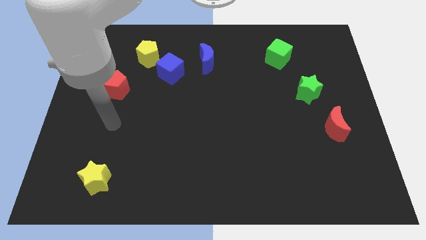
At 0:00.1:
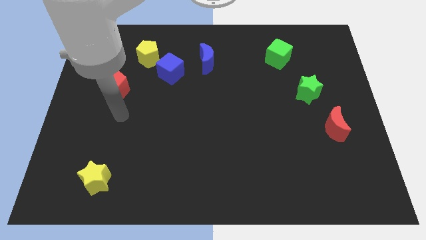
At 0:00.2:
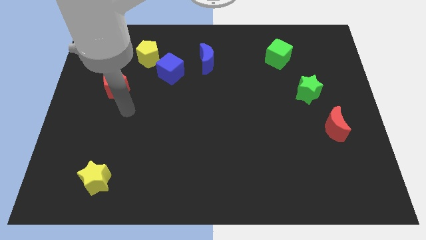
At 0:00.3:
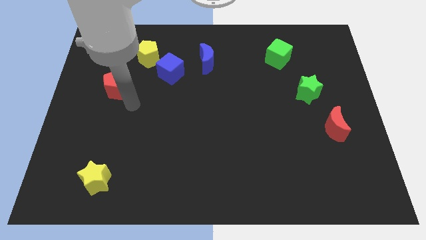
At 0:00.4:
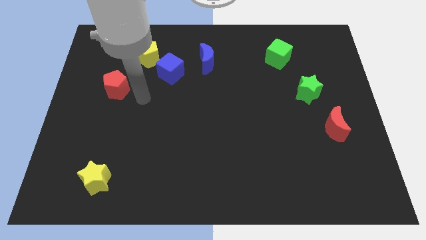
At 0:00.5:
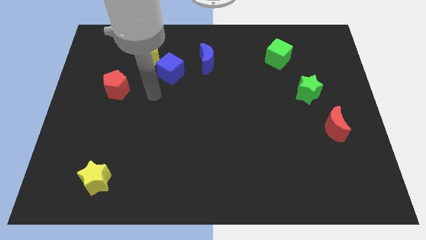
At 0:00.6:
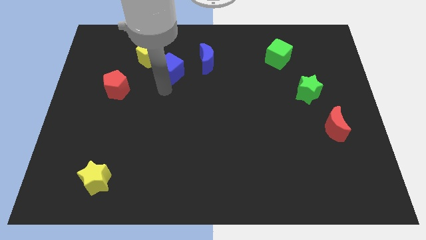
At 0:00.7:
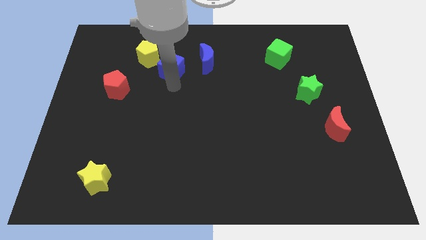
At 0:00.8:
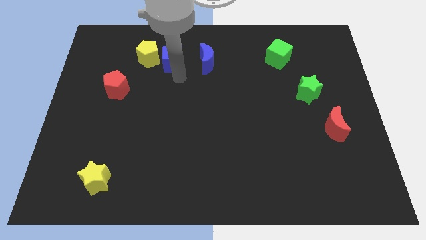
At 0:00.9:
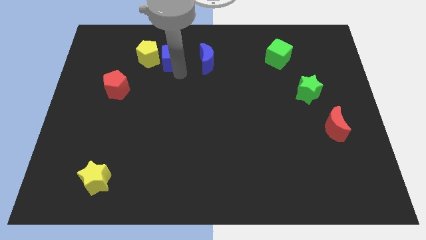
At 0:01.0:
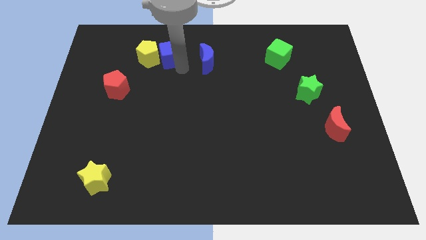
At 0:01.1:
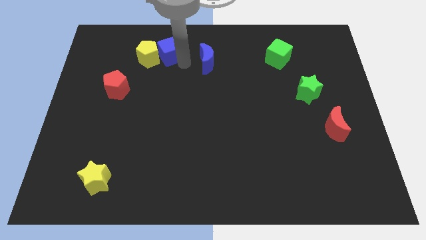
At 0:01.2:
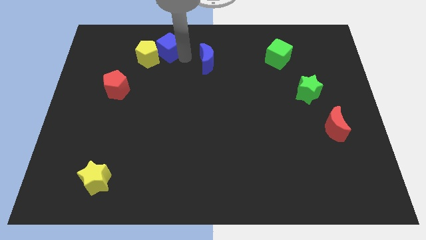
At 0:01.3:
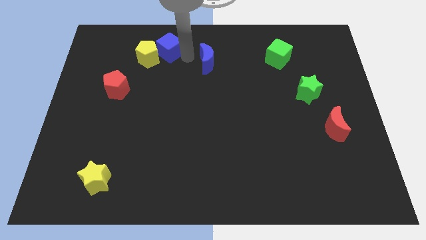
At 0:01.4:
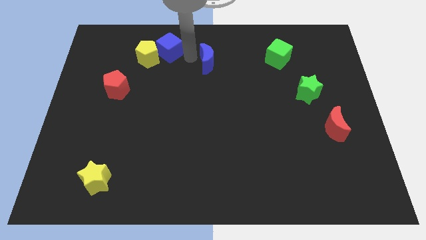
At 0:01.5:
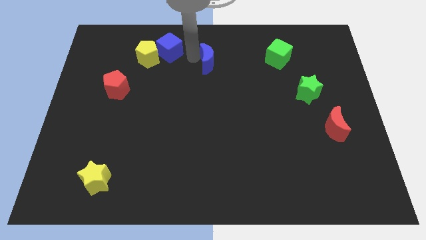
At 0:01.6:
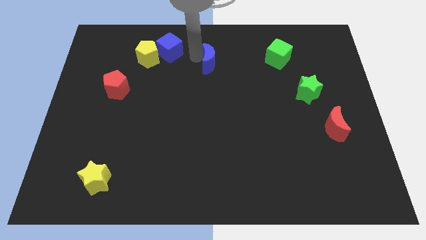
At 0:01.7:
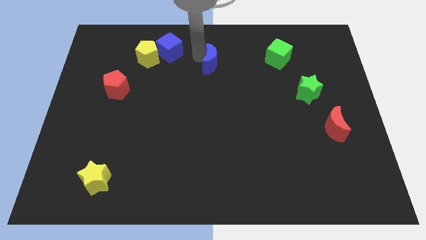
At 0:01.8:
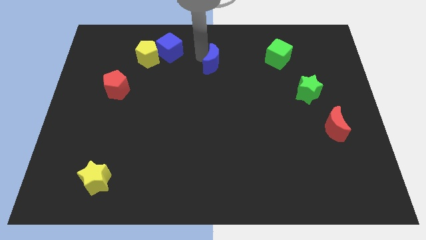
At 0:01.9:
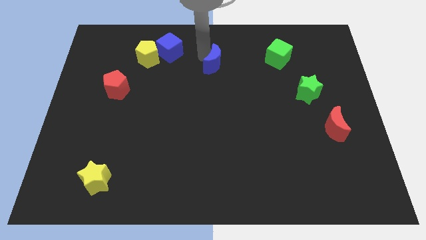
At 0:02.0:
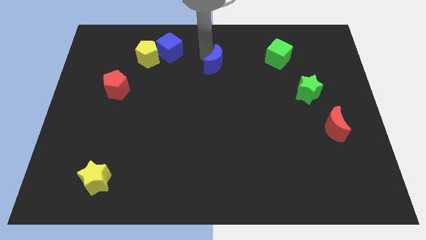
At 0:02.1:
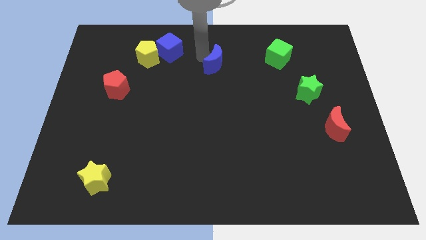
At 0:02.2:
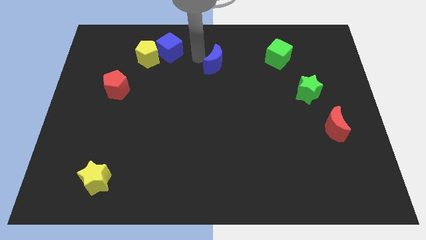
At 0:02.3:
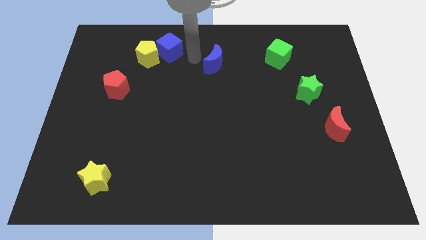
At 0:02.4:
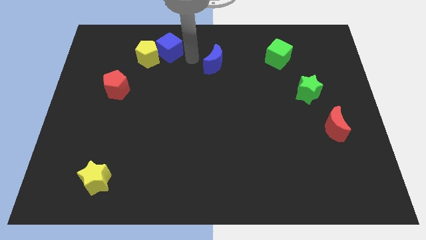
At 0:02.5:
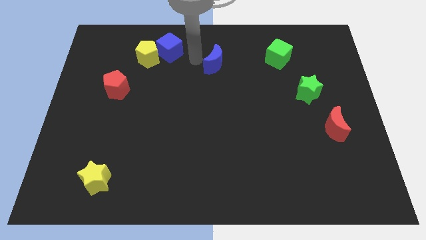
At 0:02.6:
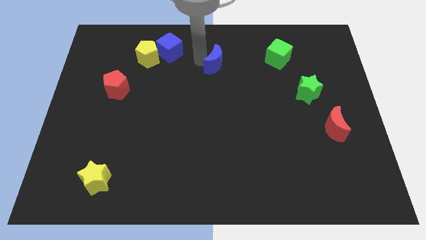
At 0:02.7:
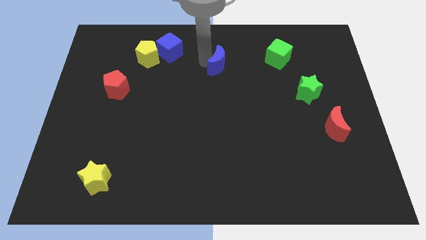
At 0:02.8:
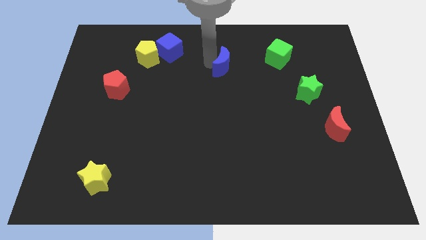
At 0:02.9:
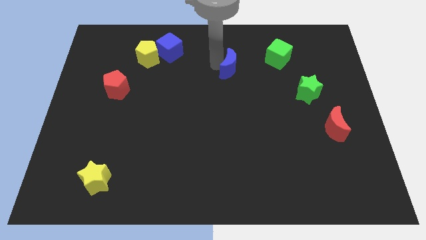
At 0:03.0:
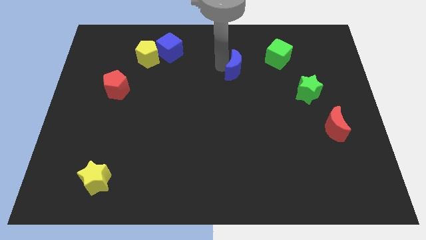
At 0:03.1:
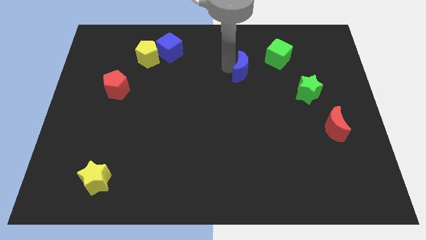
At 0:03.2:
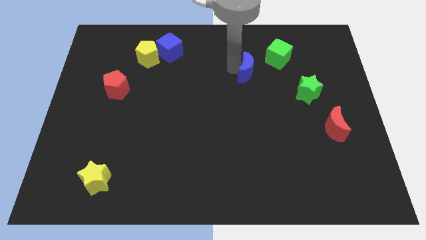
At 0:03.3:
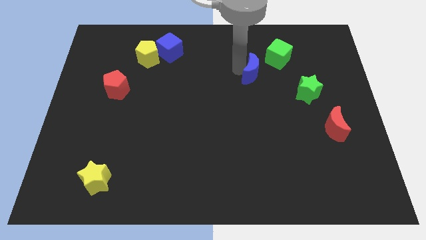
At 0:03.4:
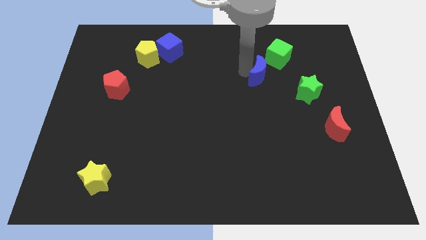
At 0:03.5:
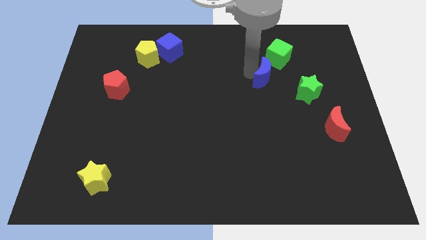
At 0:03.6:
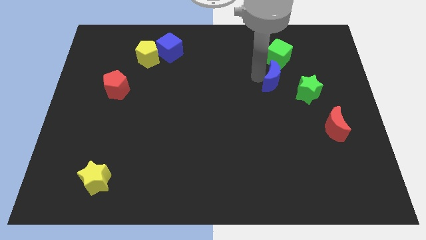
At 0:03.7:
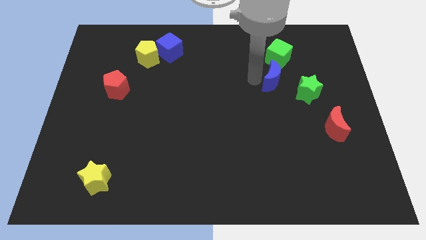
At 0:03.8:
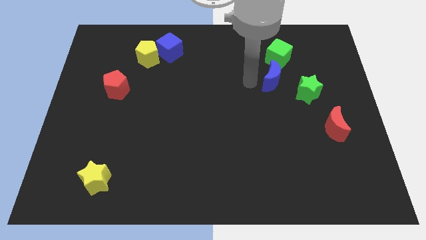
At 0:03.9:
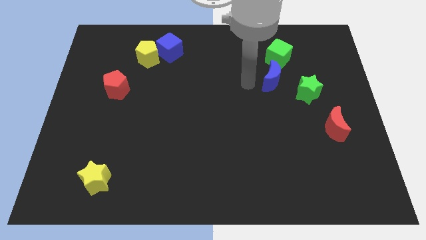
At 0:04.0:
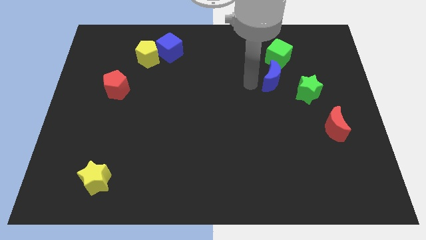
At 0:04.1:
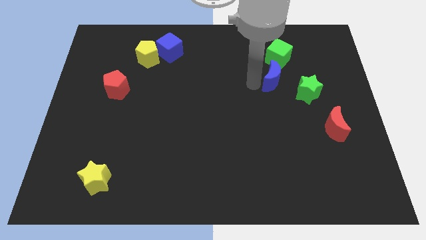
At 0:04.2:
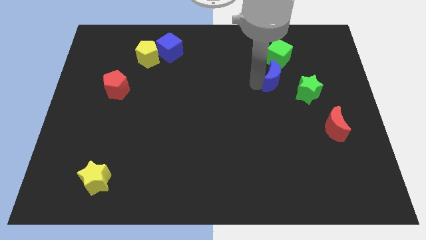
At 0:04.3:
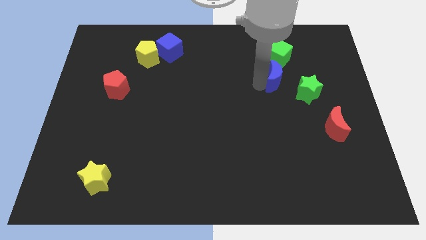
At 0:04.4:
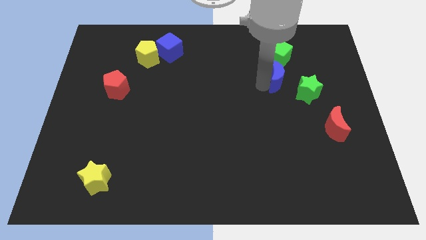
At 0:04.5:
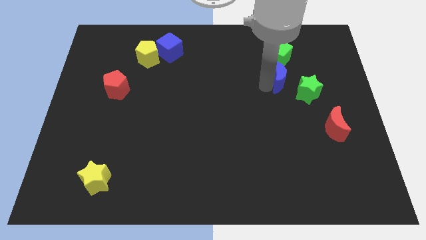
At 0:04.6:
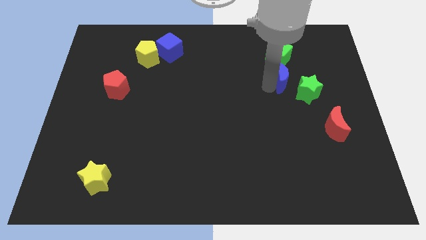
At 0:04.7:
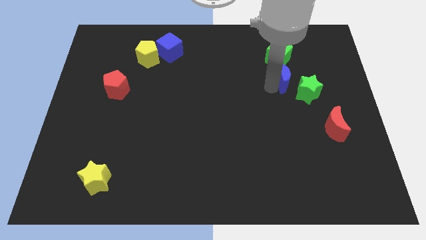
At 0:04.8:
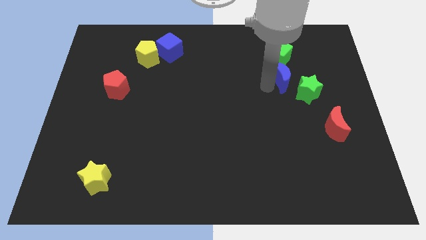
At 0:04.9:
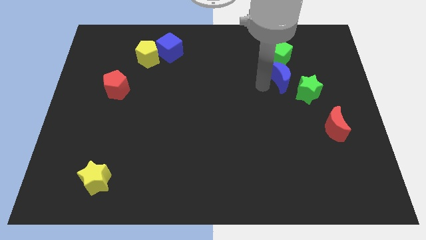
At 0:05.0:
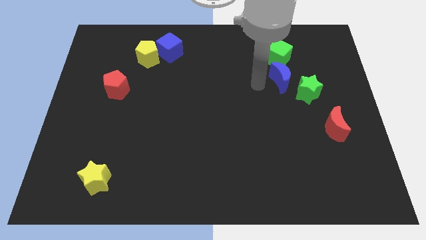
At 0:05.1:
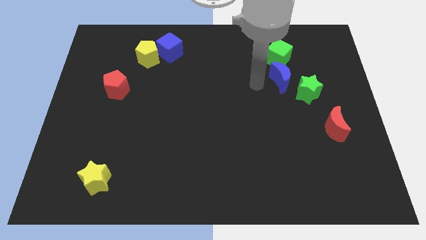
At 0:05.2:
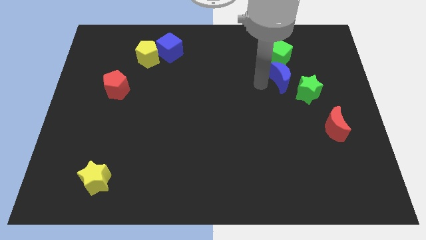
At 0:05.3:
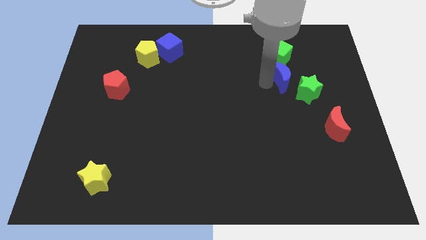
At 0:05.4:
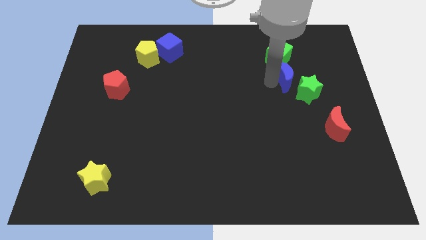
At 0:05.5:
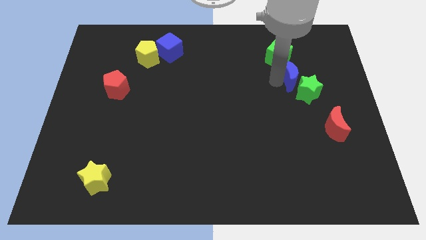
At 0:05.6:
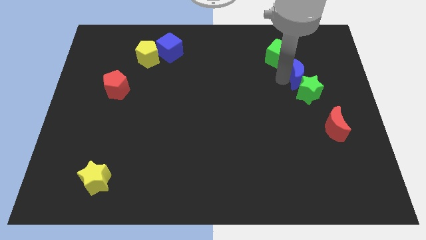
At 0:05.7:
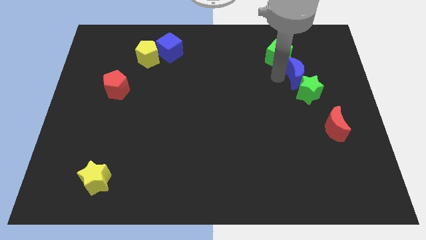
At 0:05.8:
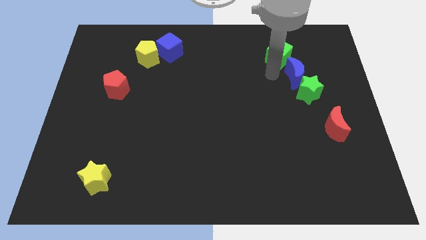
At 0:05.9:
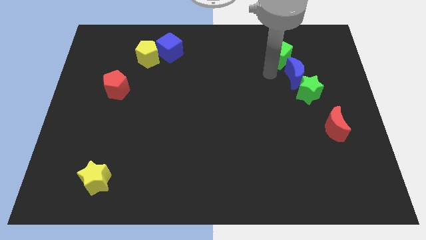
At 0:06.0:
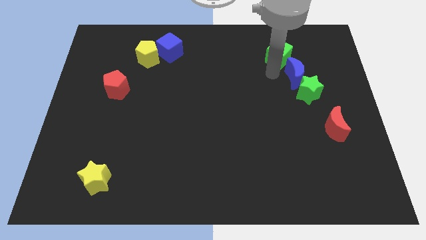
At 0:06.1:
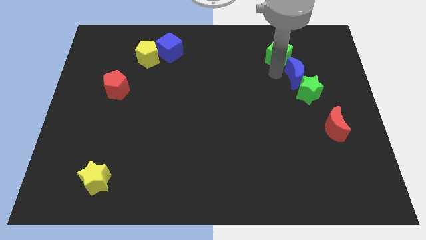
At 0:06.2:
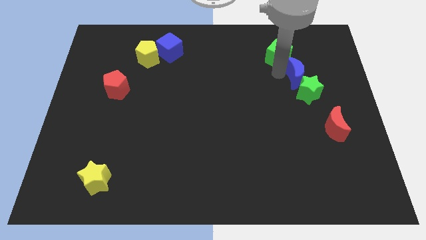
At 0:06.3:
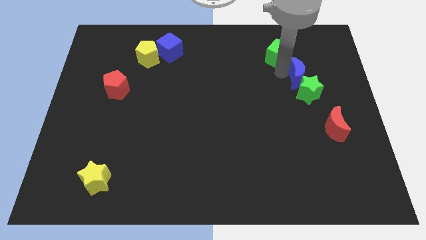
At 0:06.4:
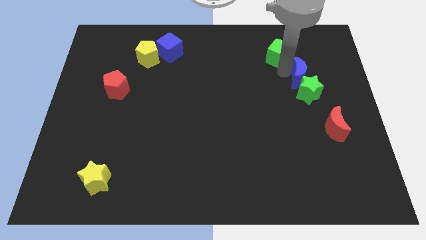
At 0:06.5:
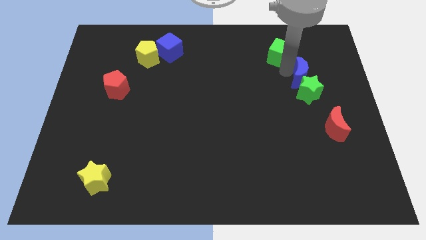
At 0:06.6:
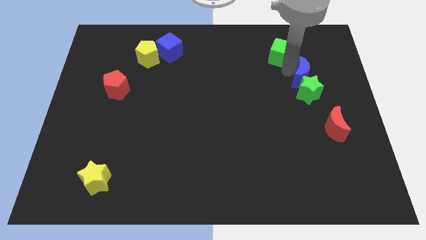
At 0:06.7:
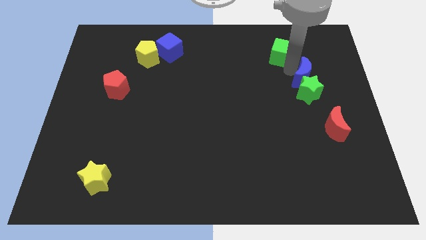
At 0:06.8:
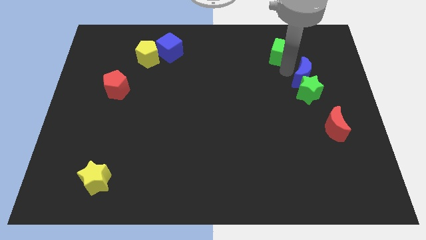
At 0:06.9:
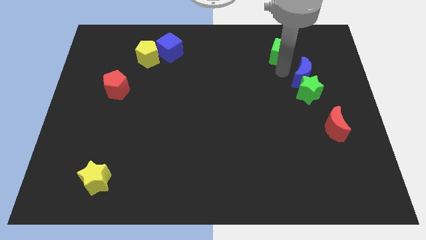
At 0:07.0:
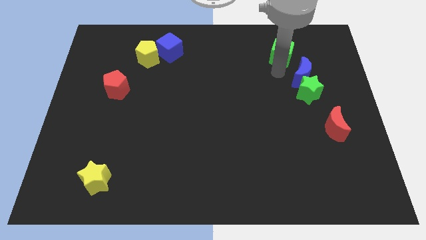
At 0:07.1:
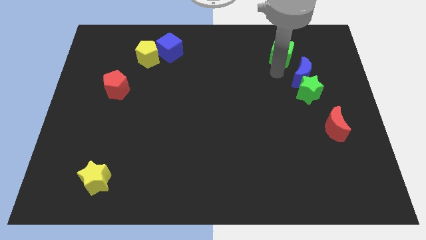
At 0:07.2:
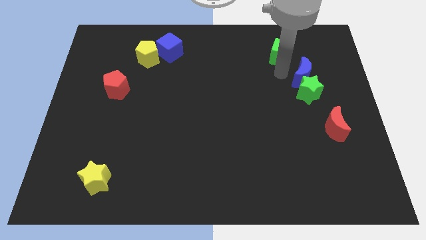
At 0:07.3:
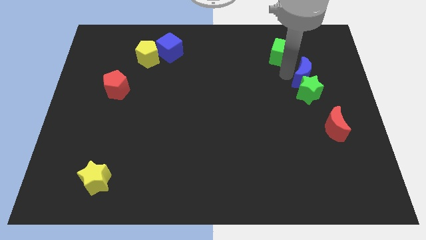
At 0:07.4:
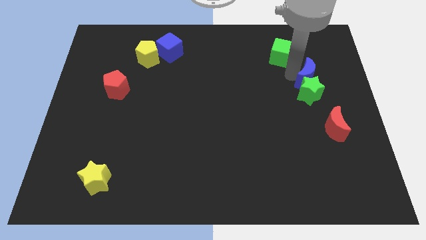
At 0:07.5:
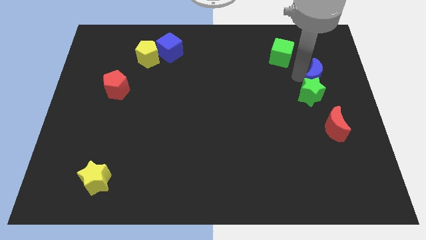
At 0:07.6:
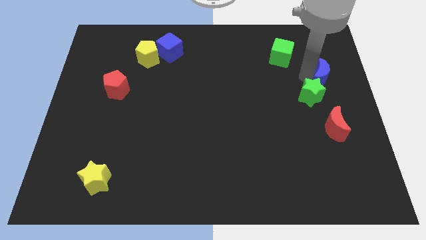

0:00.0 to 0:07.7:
push the blue moon to the right side
